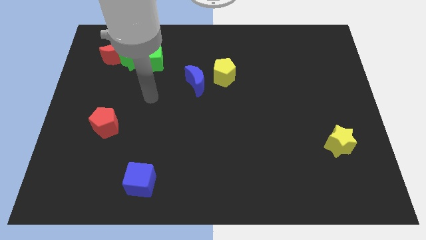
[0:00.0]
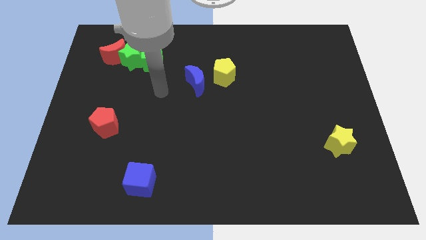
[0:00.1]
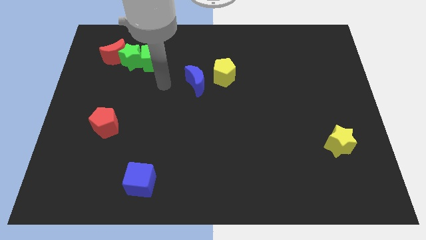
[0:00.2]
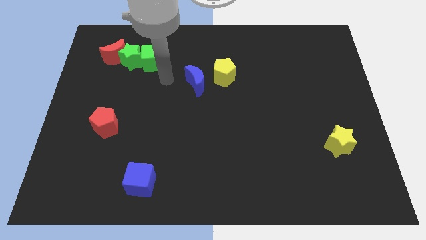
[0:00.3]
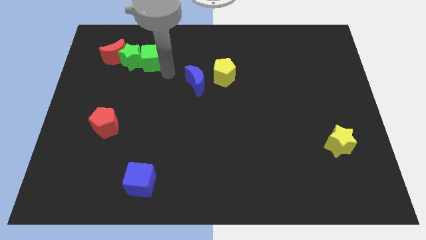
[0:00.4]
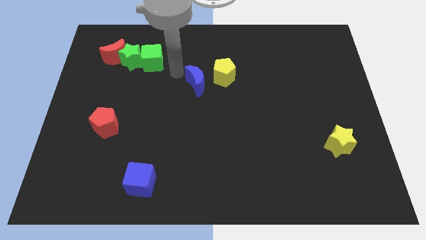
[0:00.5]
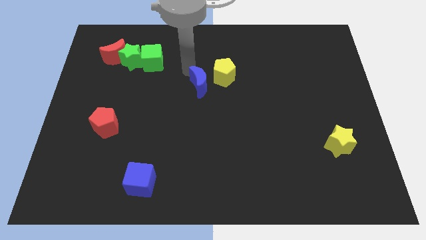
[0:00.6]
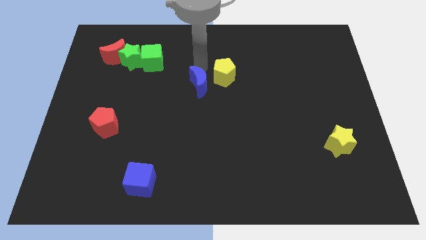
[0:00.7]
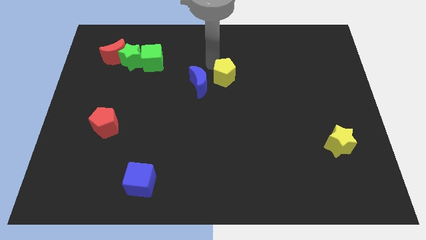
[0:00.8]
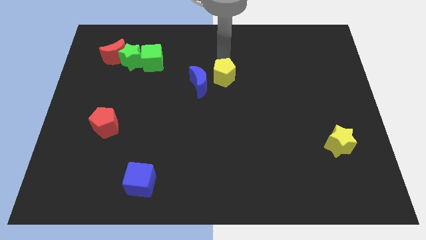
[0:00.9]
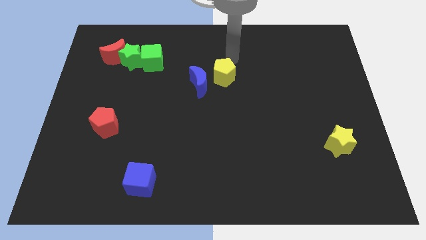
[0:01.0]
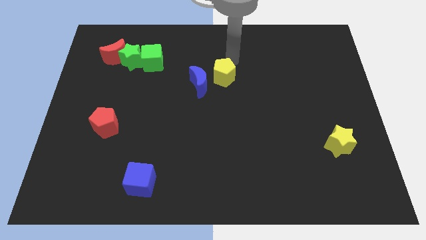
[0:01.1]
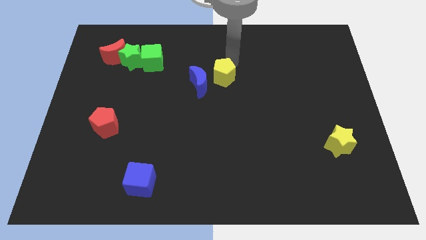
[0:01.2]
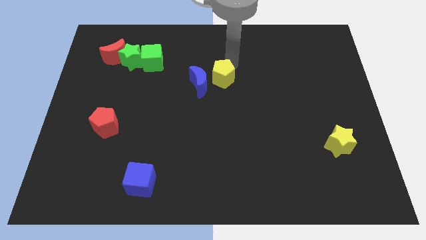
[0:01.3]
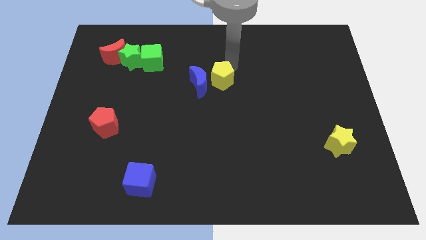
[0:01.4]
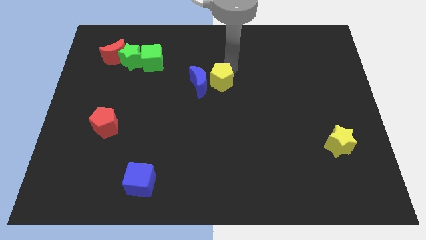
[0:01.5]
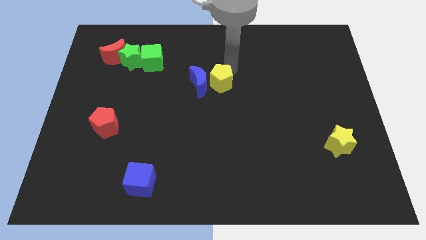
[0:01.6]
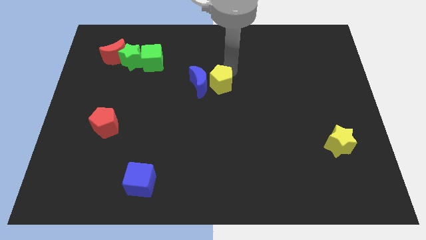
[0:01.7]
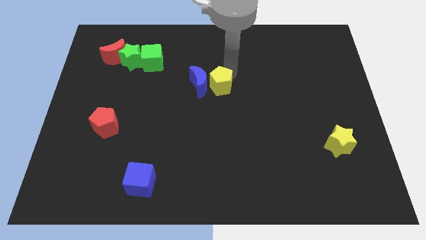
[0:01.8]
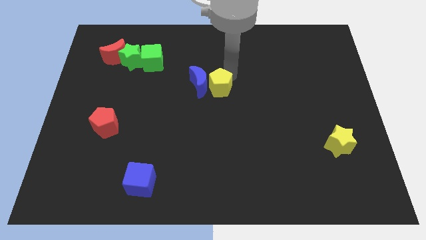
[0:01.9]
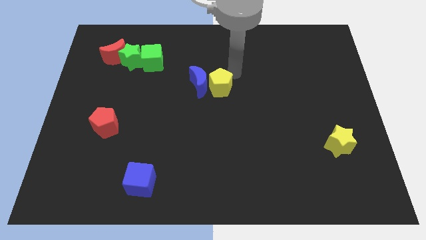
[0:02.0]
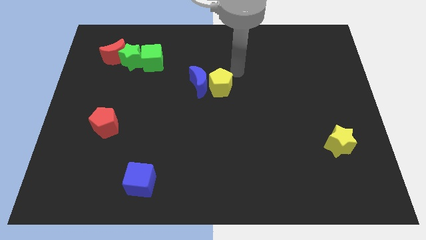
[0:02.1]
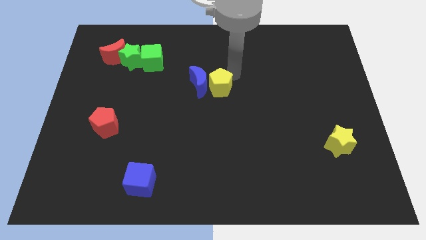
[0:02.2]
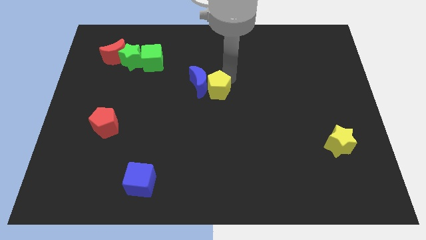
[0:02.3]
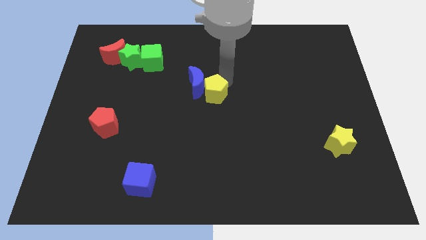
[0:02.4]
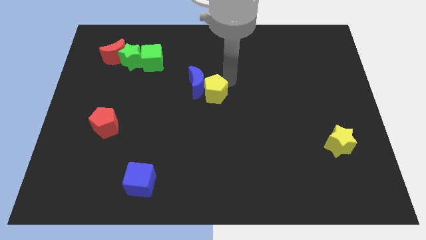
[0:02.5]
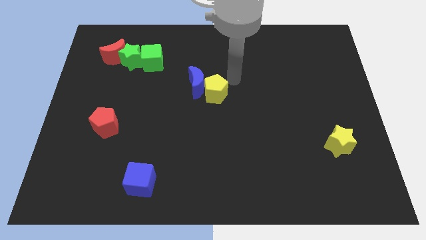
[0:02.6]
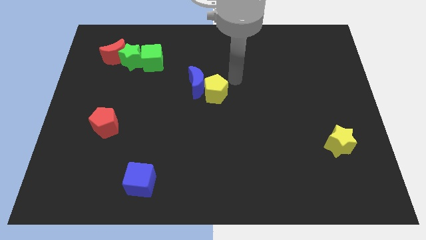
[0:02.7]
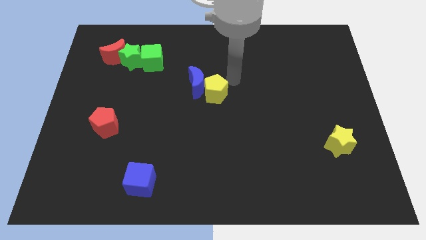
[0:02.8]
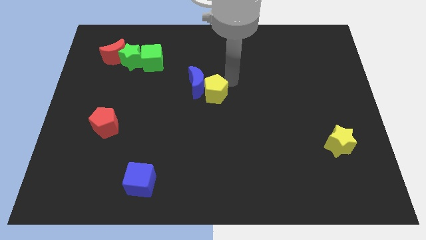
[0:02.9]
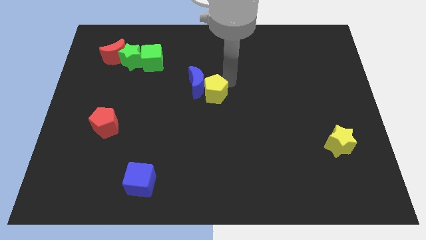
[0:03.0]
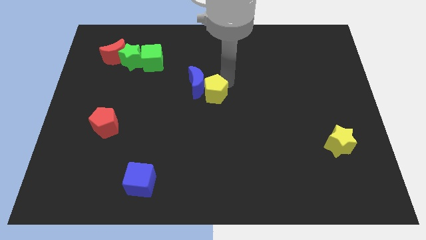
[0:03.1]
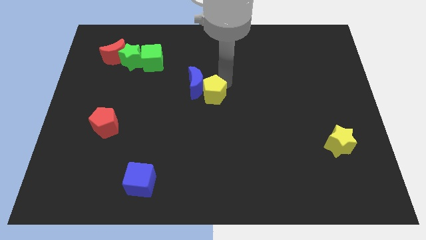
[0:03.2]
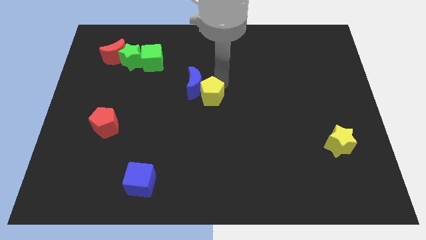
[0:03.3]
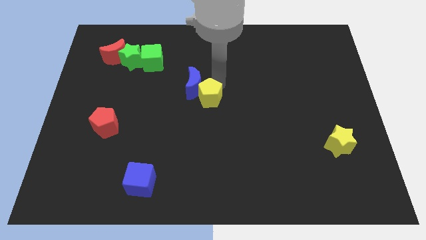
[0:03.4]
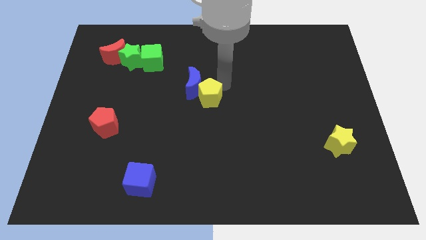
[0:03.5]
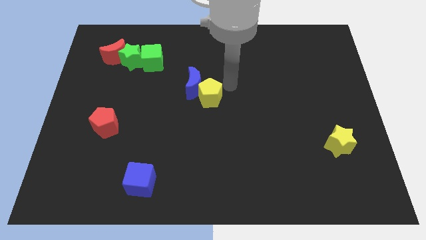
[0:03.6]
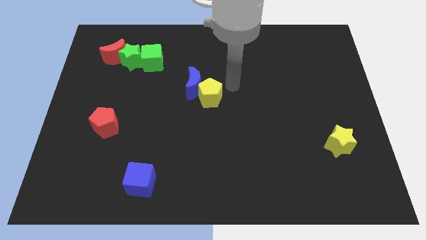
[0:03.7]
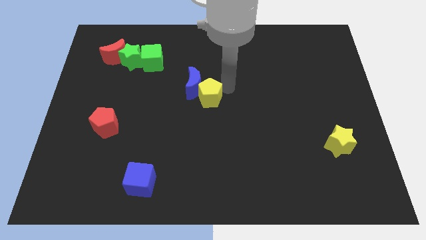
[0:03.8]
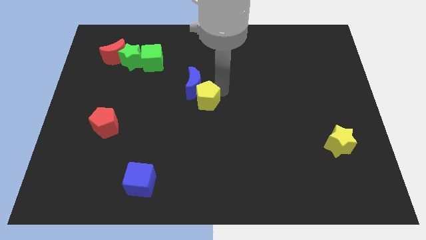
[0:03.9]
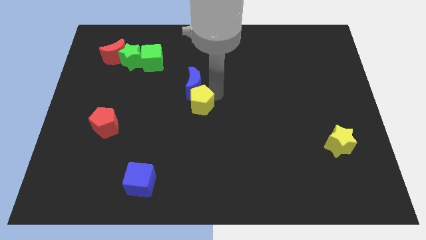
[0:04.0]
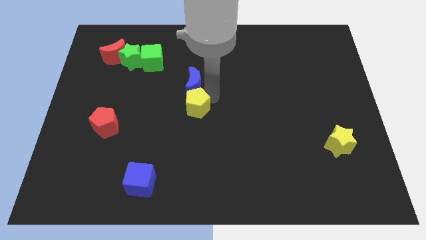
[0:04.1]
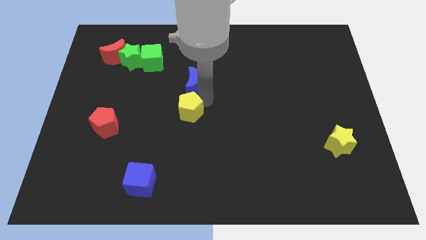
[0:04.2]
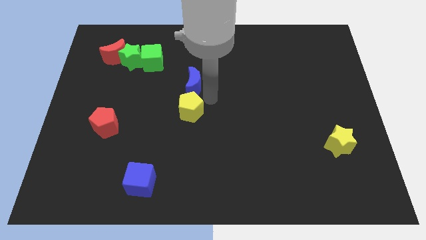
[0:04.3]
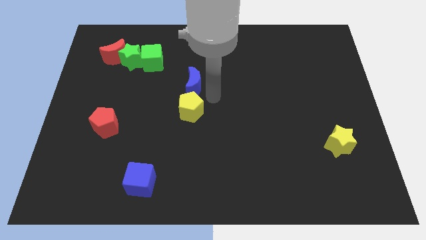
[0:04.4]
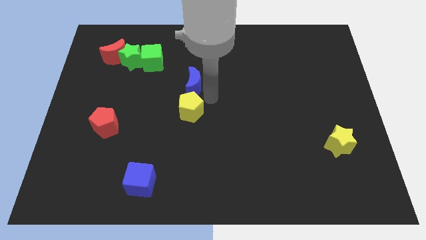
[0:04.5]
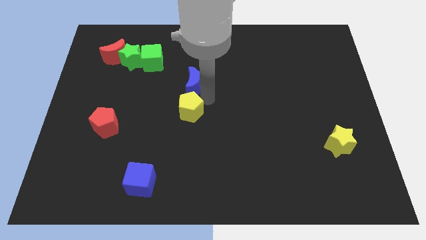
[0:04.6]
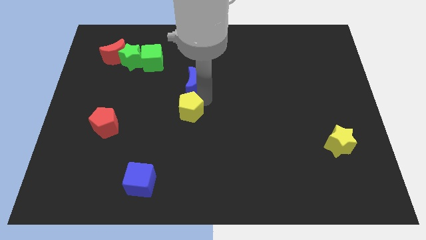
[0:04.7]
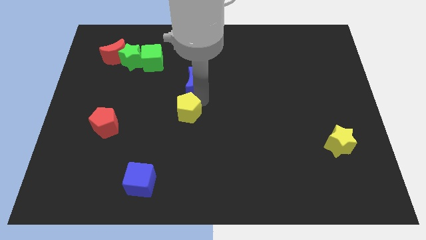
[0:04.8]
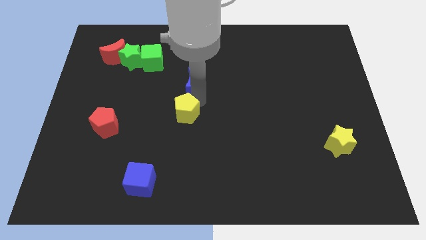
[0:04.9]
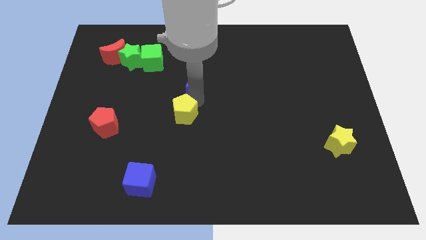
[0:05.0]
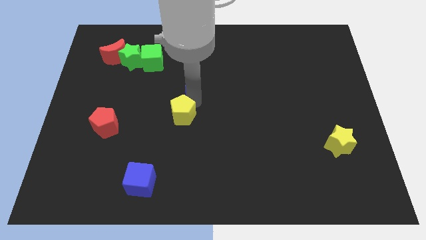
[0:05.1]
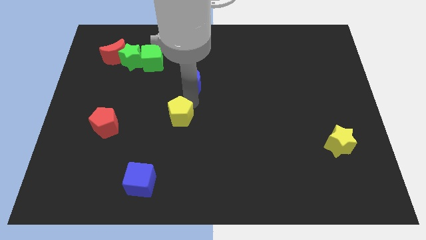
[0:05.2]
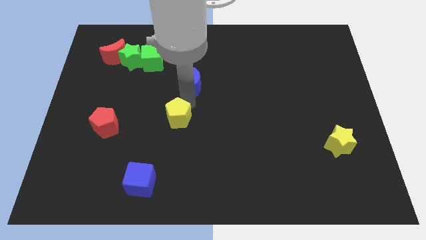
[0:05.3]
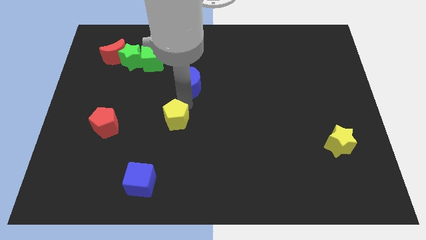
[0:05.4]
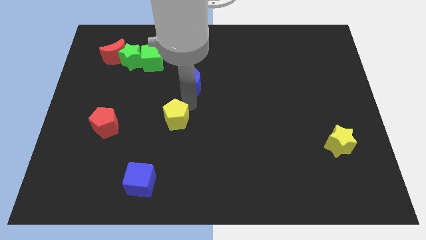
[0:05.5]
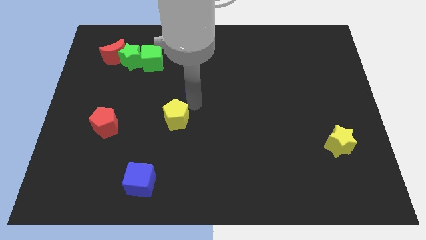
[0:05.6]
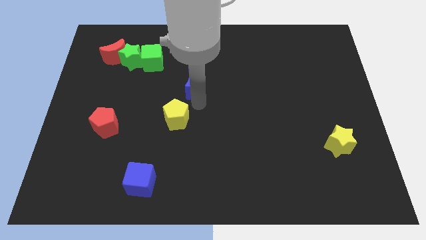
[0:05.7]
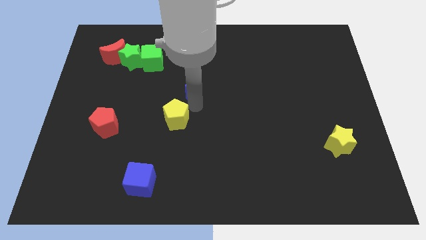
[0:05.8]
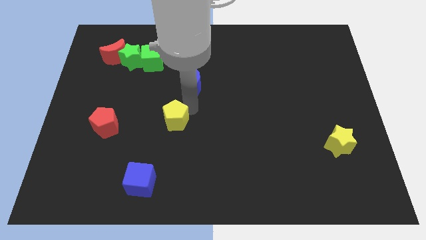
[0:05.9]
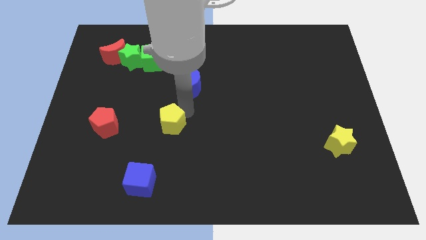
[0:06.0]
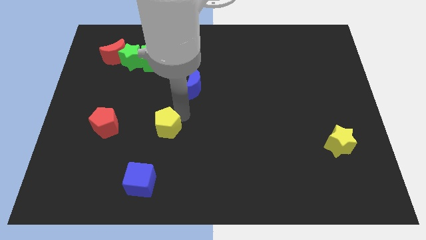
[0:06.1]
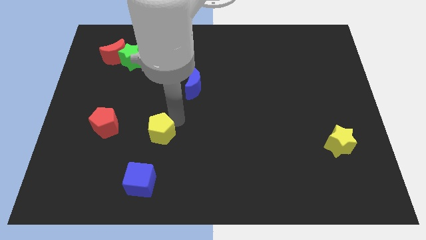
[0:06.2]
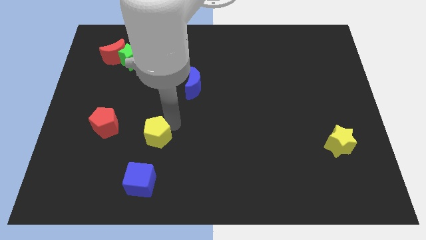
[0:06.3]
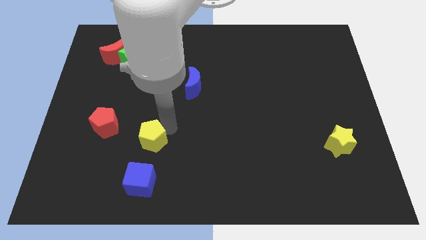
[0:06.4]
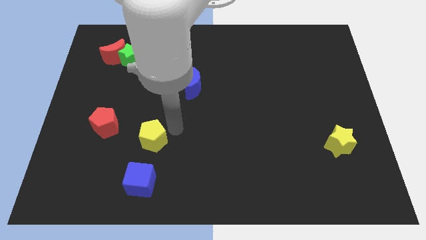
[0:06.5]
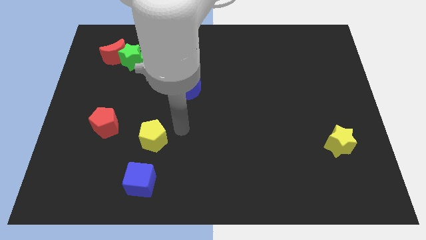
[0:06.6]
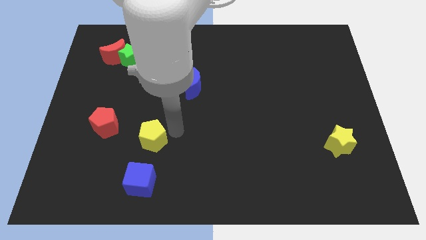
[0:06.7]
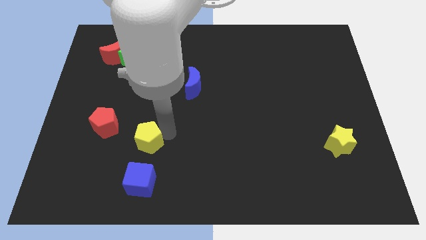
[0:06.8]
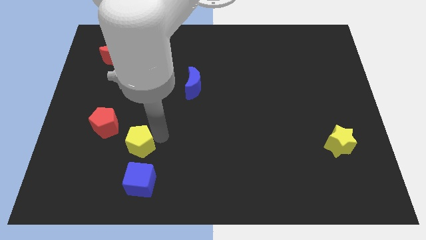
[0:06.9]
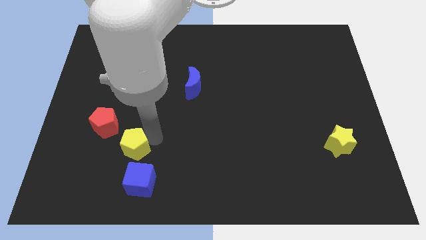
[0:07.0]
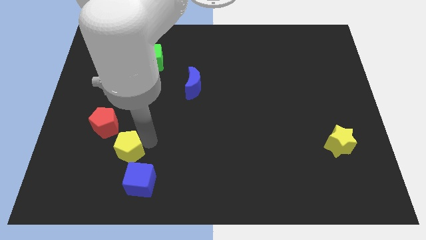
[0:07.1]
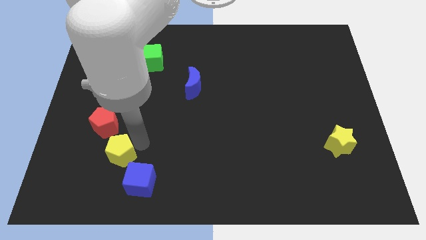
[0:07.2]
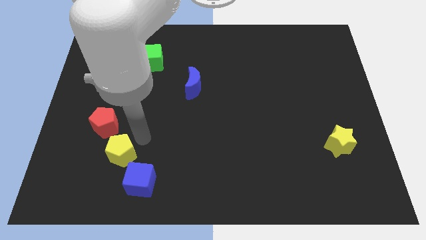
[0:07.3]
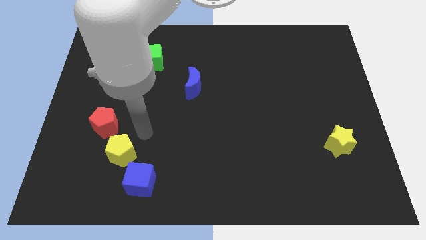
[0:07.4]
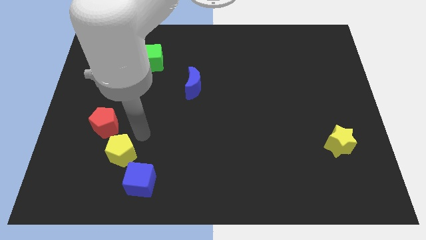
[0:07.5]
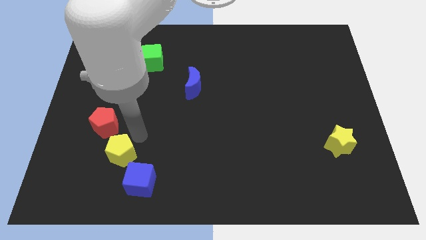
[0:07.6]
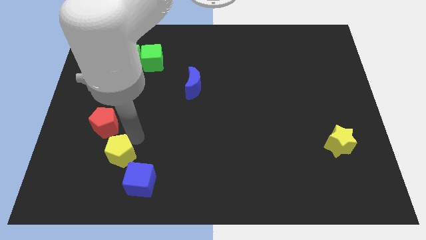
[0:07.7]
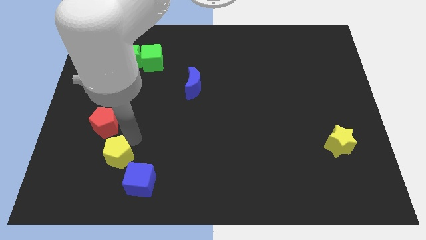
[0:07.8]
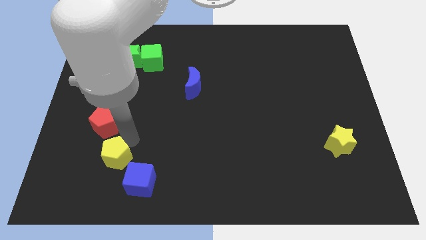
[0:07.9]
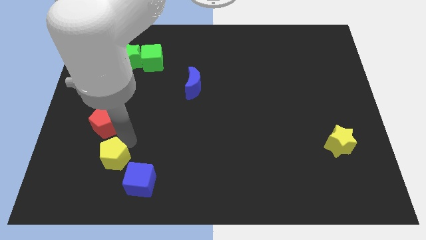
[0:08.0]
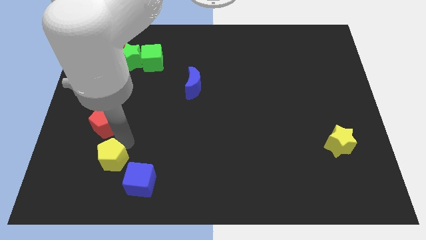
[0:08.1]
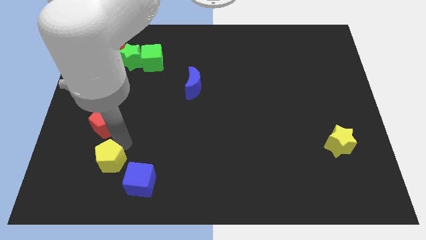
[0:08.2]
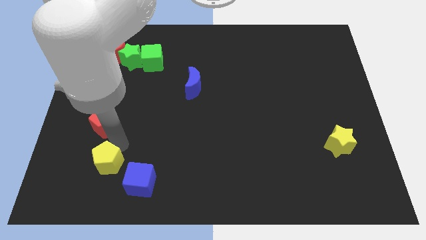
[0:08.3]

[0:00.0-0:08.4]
push the yellow pentagon to the left of the blue cube
